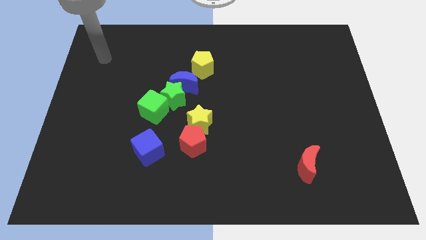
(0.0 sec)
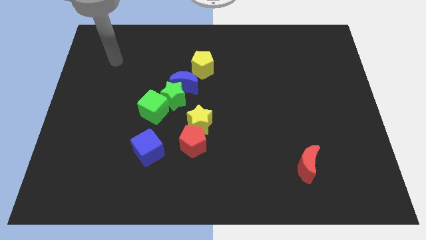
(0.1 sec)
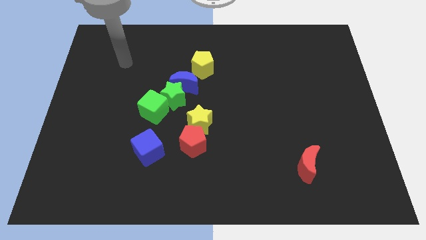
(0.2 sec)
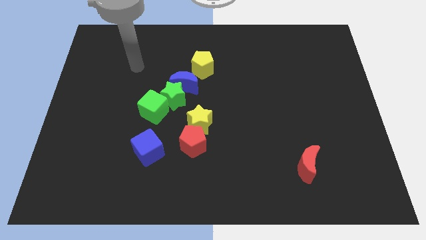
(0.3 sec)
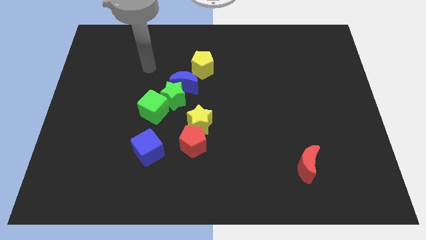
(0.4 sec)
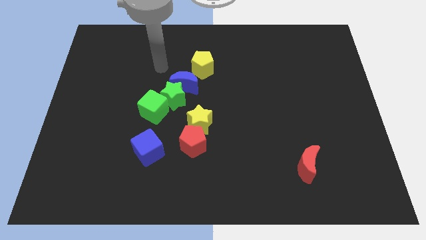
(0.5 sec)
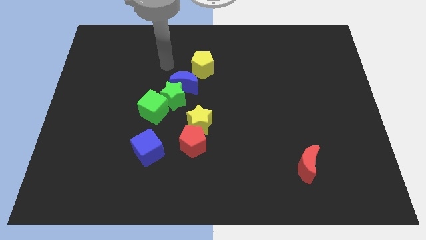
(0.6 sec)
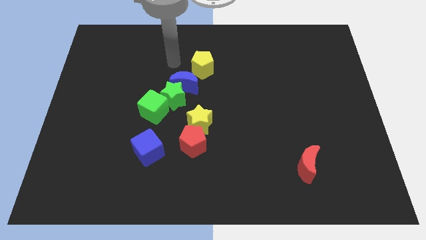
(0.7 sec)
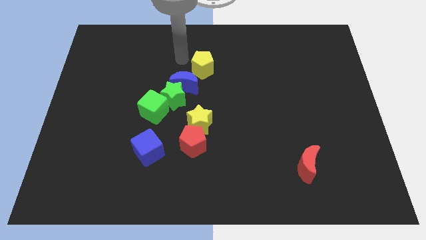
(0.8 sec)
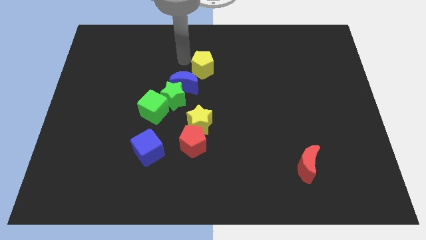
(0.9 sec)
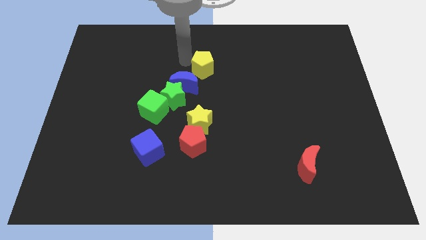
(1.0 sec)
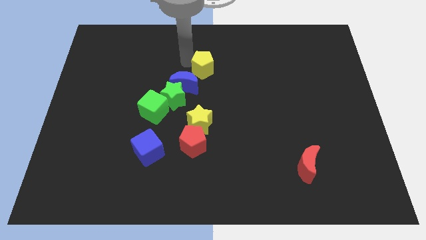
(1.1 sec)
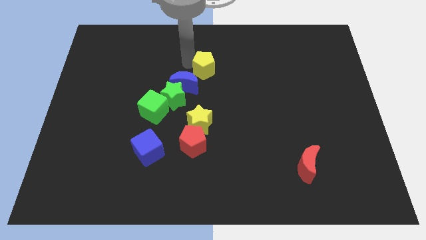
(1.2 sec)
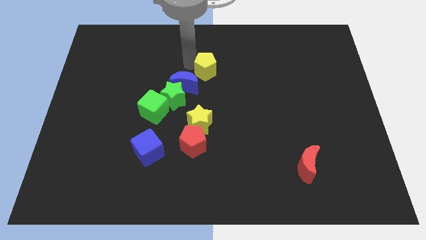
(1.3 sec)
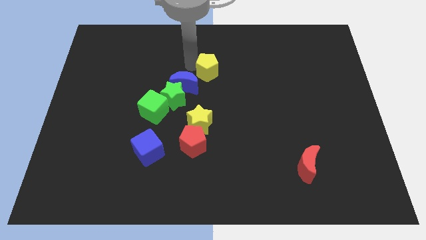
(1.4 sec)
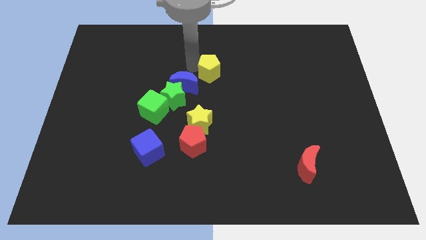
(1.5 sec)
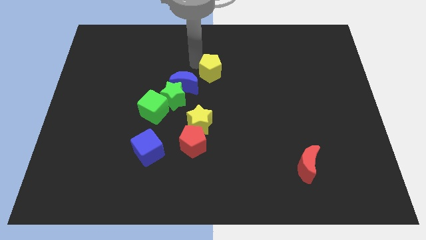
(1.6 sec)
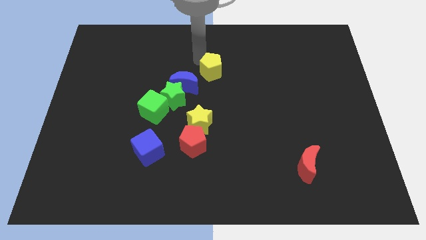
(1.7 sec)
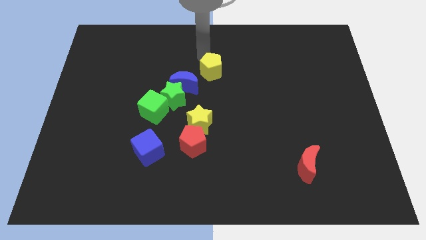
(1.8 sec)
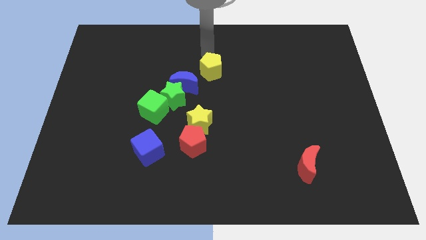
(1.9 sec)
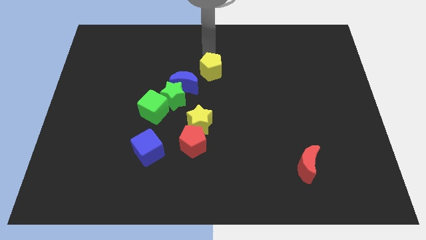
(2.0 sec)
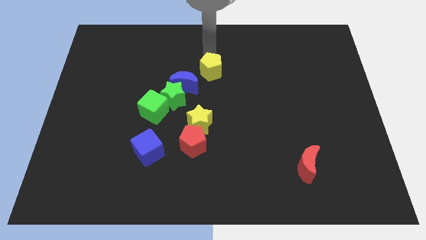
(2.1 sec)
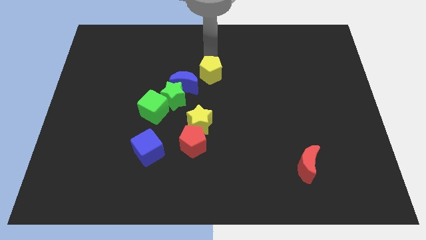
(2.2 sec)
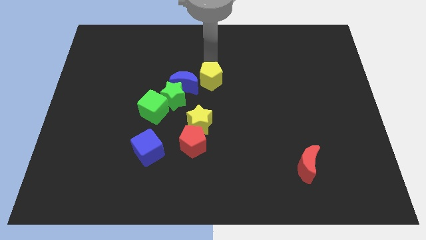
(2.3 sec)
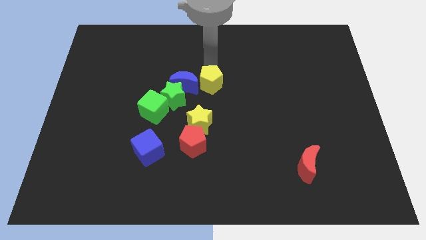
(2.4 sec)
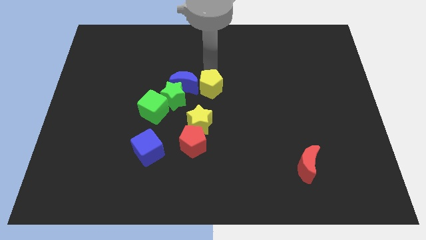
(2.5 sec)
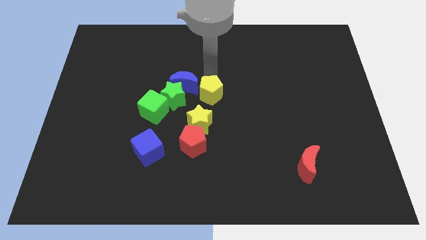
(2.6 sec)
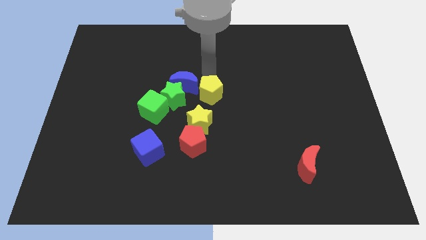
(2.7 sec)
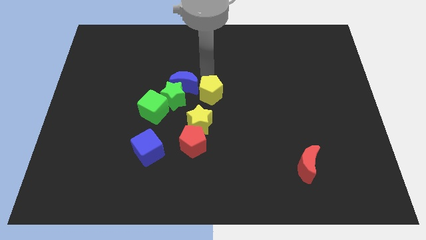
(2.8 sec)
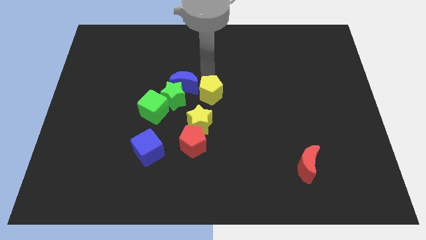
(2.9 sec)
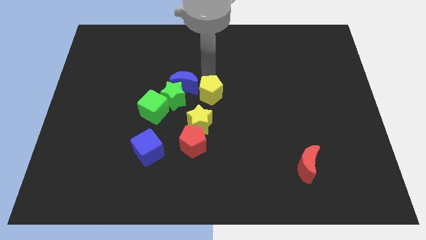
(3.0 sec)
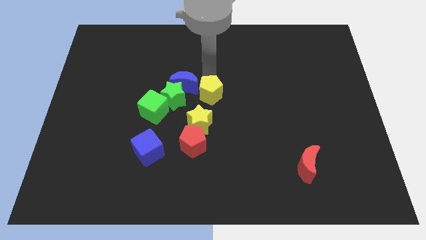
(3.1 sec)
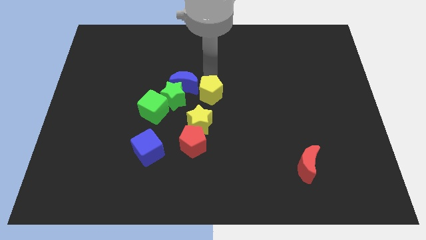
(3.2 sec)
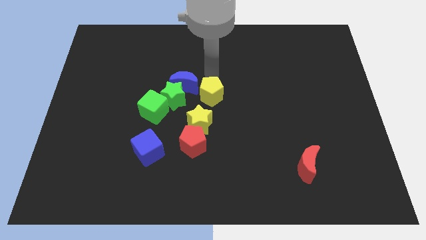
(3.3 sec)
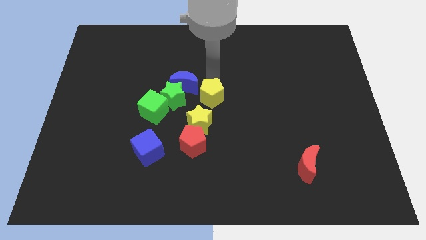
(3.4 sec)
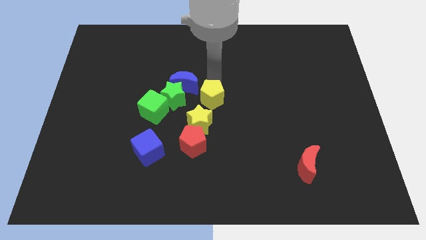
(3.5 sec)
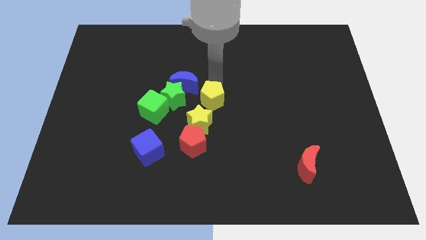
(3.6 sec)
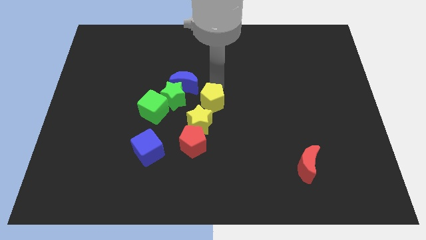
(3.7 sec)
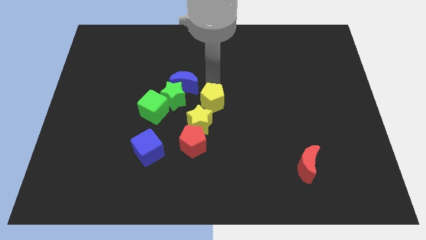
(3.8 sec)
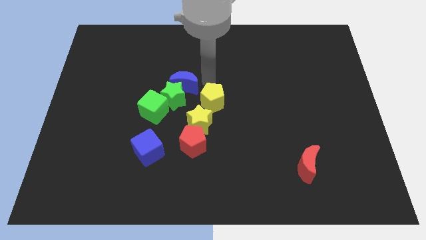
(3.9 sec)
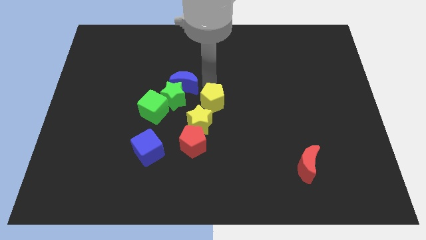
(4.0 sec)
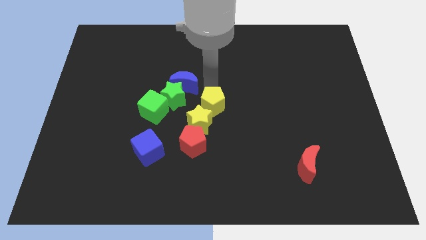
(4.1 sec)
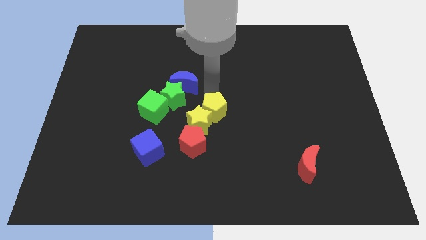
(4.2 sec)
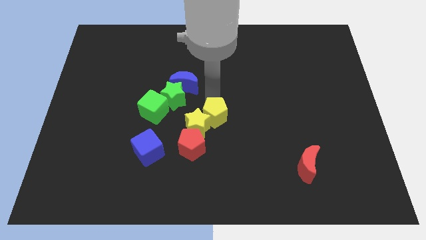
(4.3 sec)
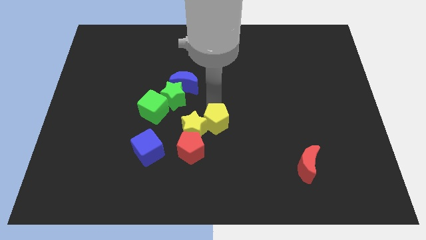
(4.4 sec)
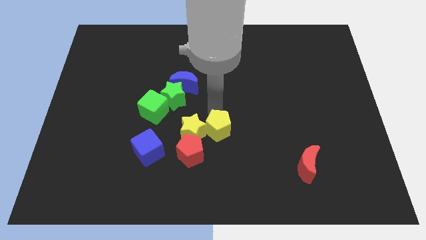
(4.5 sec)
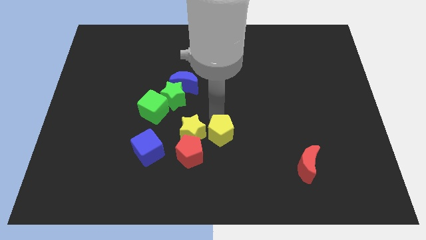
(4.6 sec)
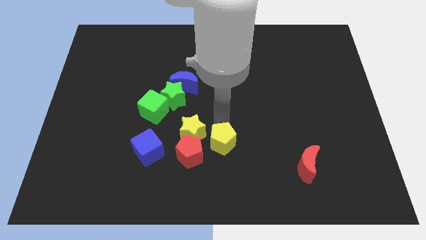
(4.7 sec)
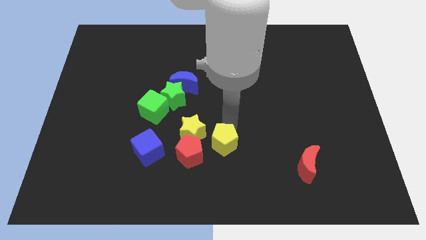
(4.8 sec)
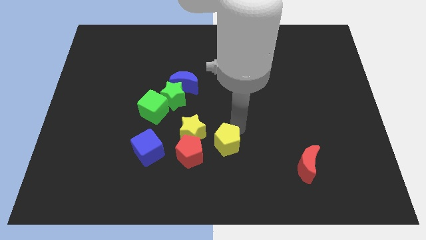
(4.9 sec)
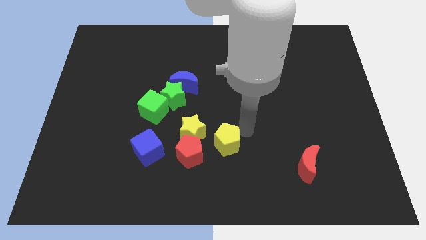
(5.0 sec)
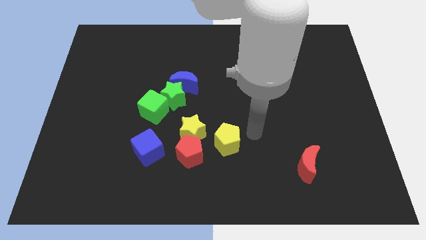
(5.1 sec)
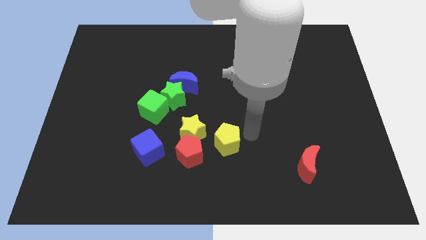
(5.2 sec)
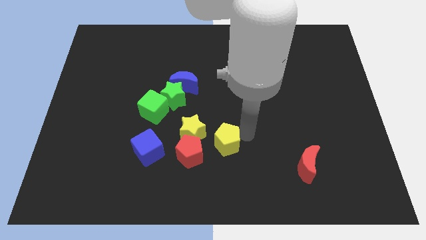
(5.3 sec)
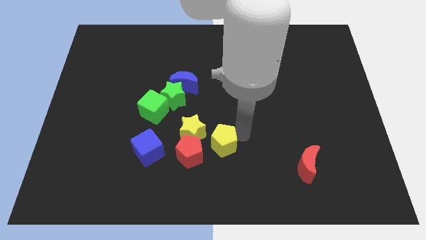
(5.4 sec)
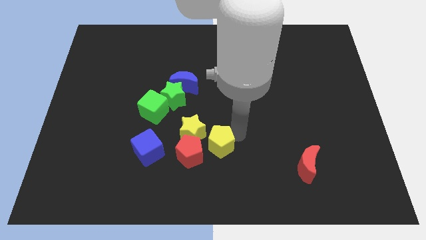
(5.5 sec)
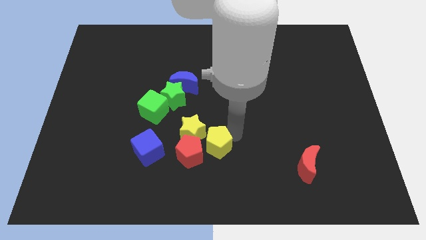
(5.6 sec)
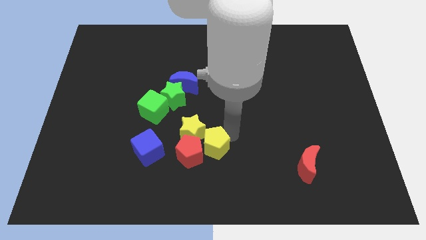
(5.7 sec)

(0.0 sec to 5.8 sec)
push the yellow pentagon close to the red pentagon

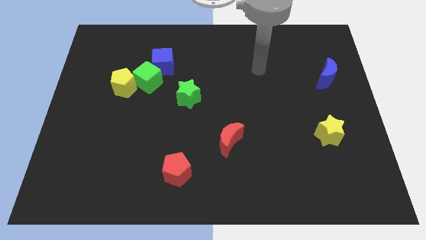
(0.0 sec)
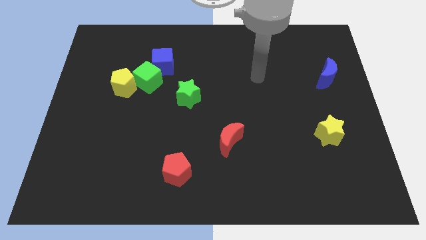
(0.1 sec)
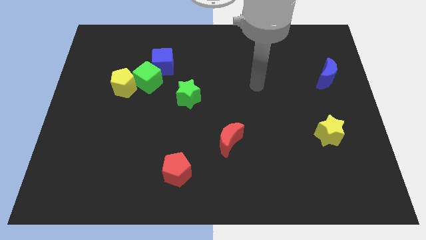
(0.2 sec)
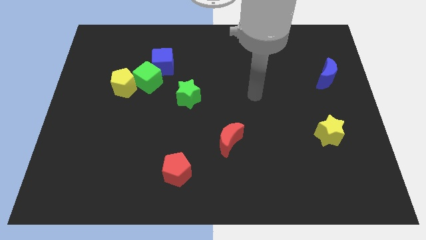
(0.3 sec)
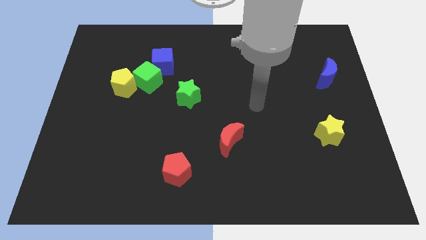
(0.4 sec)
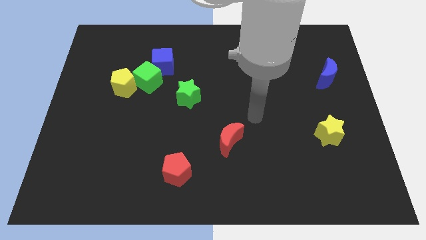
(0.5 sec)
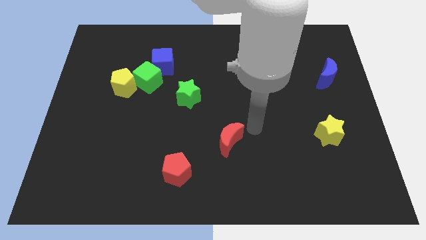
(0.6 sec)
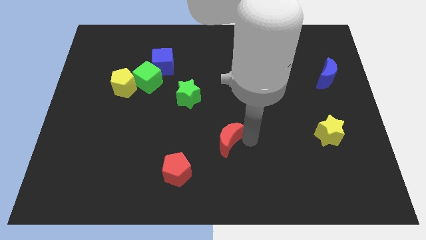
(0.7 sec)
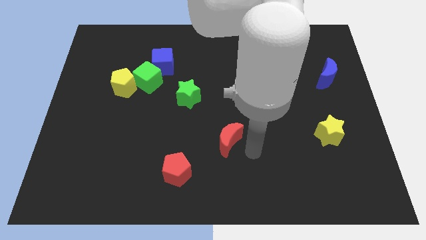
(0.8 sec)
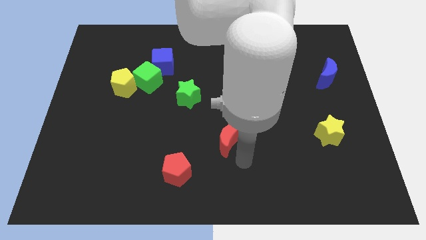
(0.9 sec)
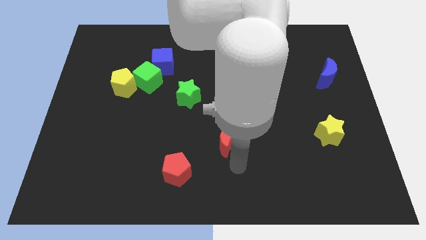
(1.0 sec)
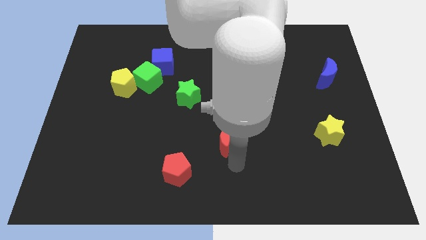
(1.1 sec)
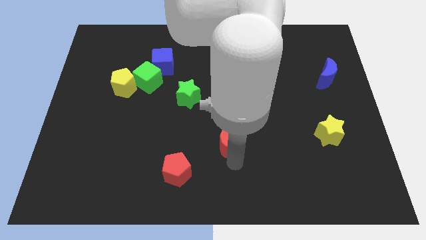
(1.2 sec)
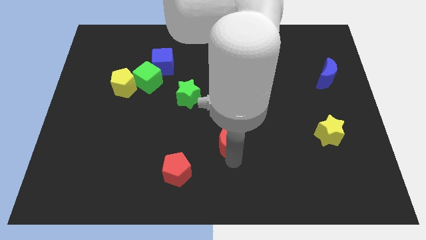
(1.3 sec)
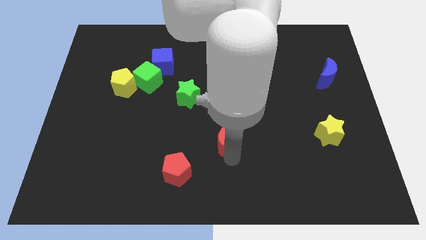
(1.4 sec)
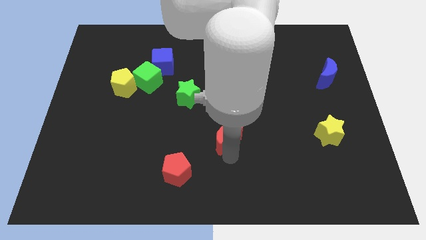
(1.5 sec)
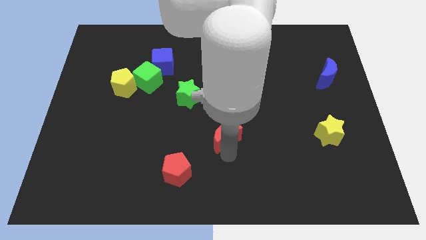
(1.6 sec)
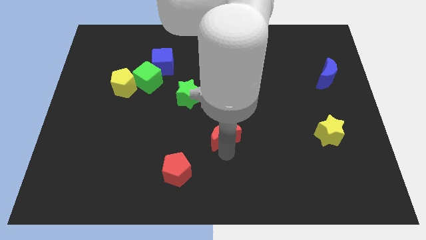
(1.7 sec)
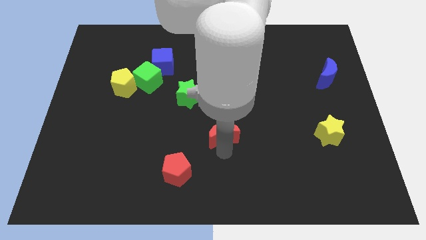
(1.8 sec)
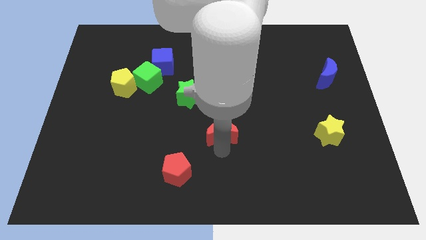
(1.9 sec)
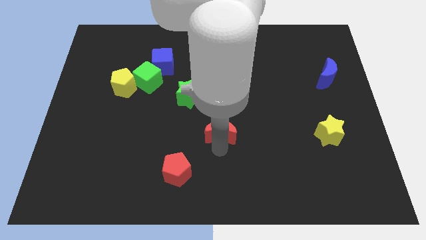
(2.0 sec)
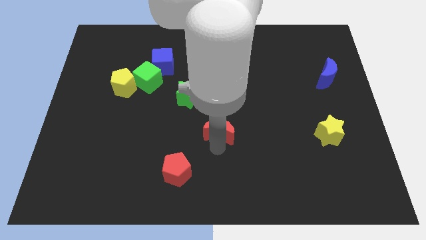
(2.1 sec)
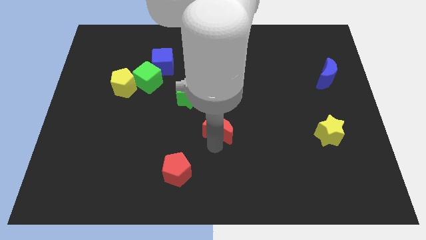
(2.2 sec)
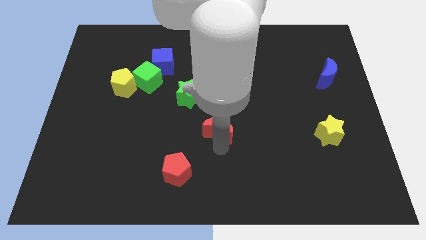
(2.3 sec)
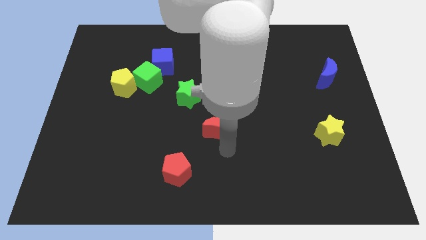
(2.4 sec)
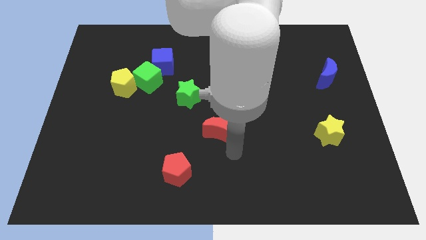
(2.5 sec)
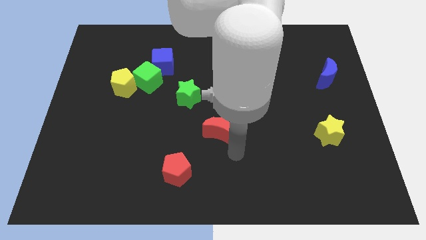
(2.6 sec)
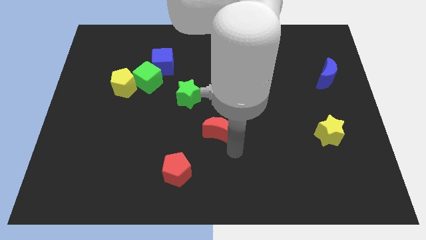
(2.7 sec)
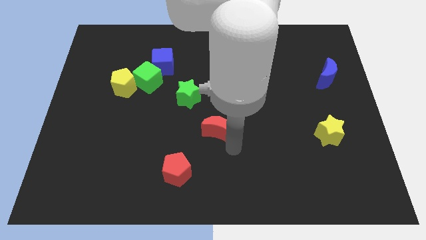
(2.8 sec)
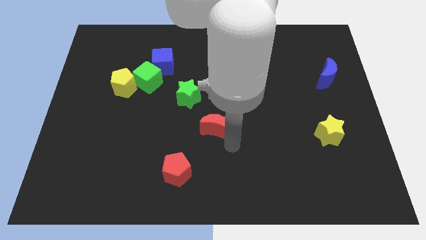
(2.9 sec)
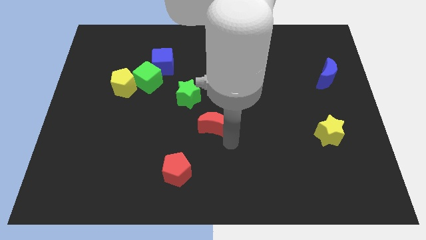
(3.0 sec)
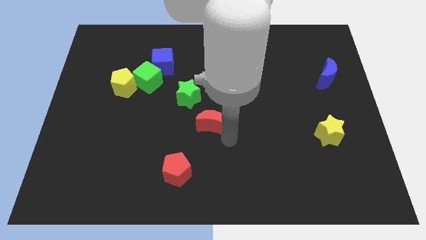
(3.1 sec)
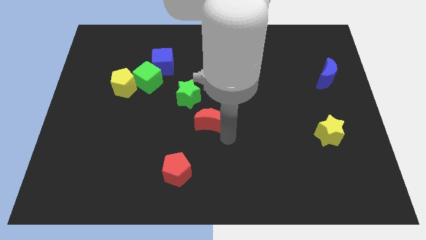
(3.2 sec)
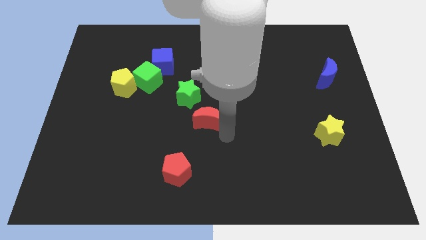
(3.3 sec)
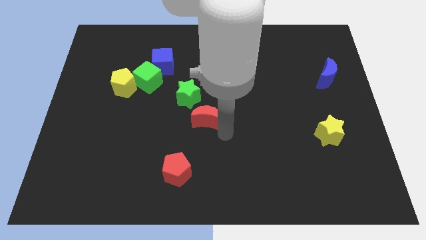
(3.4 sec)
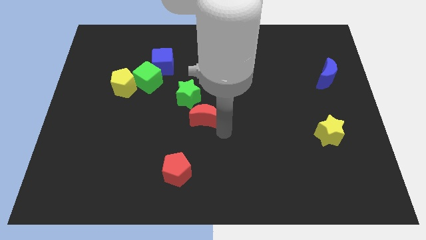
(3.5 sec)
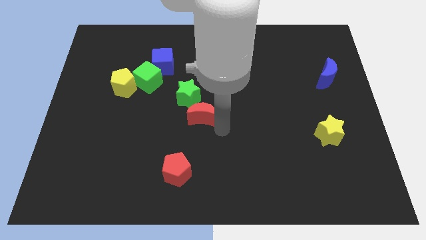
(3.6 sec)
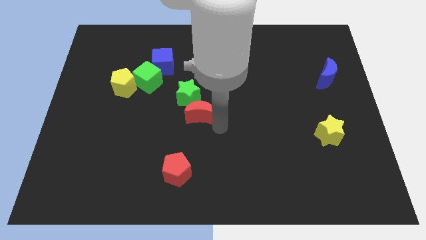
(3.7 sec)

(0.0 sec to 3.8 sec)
move the red moon close to the green star
